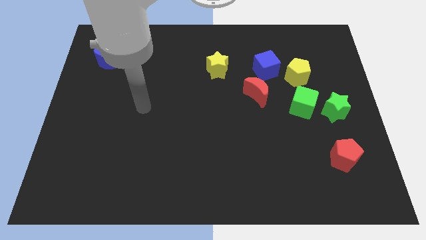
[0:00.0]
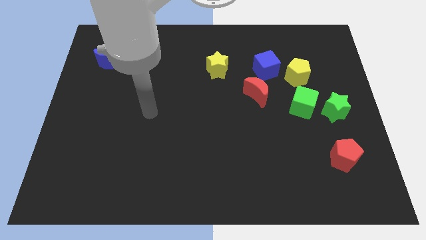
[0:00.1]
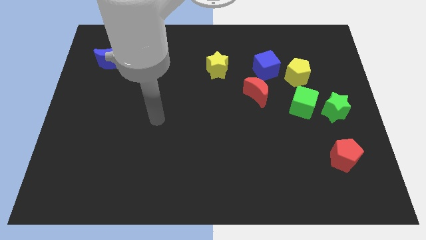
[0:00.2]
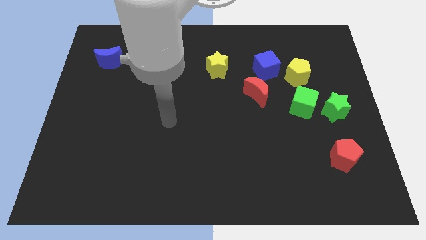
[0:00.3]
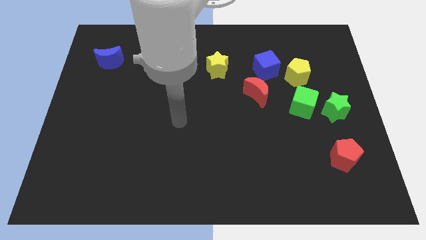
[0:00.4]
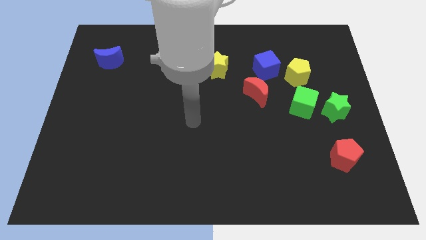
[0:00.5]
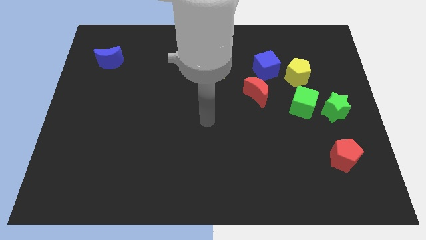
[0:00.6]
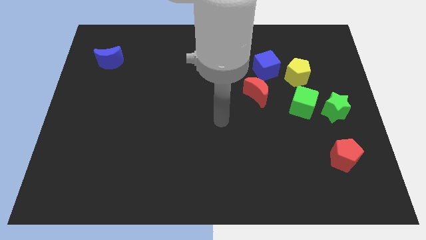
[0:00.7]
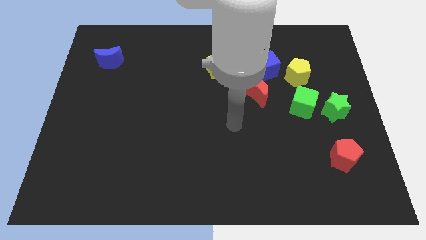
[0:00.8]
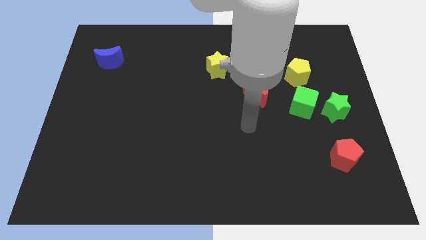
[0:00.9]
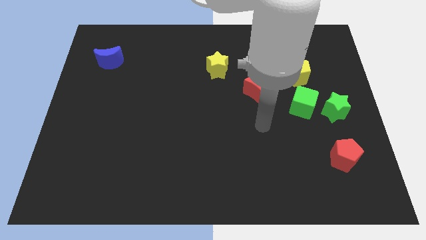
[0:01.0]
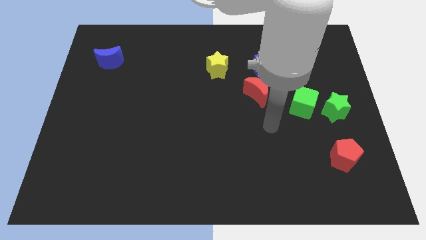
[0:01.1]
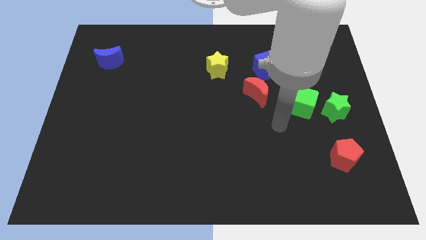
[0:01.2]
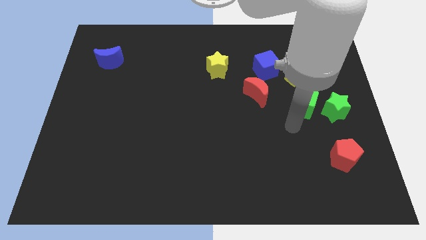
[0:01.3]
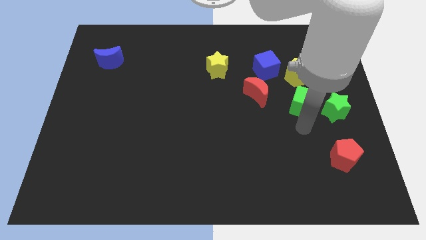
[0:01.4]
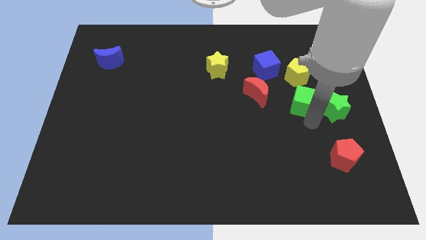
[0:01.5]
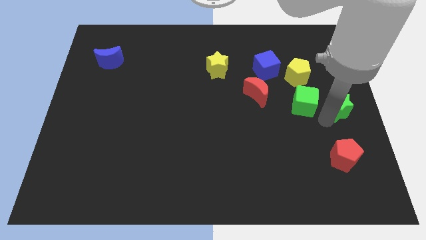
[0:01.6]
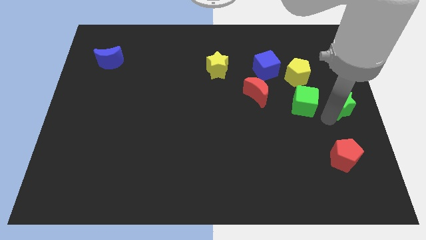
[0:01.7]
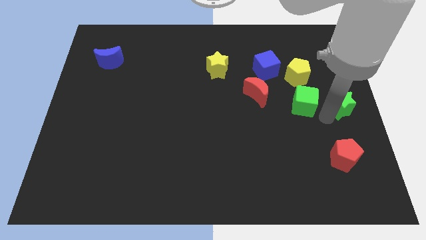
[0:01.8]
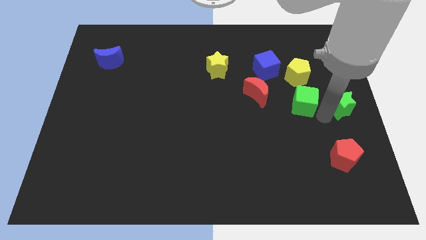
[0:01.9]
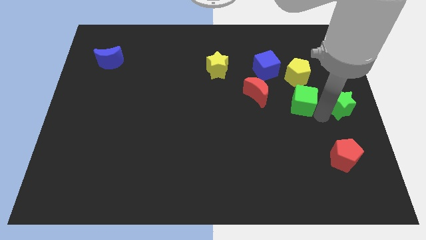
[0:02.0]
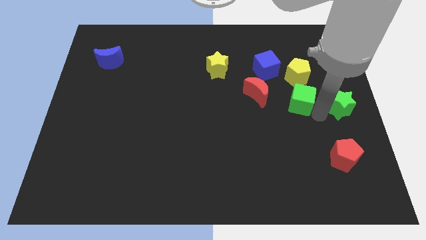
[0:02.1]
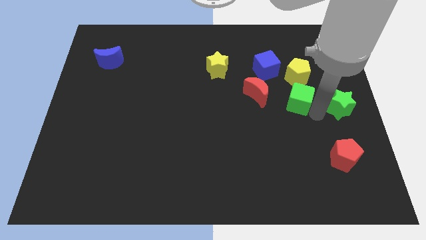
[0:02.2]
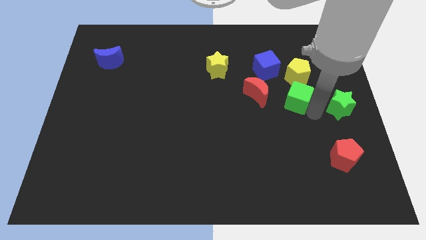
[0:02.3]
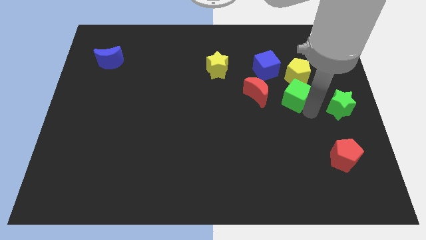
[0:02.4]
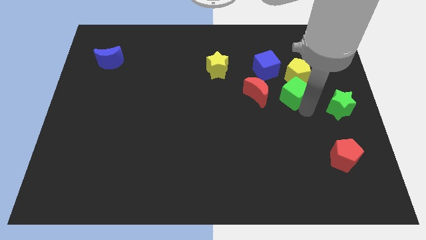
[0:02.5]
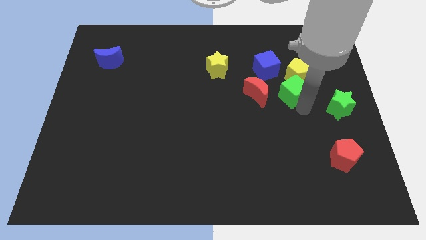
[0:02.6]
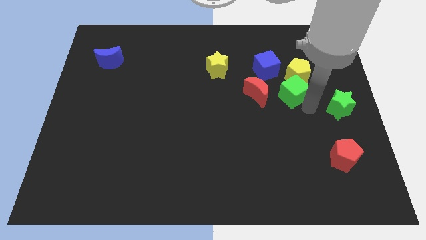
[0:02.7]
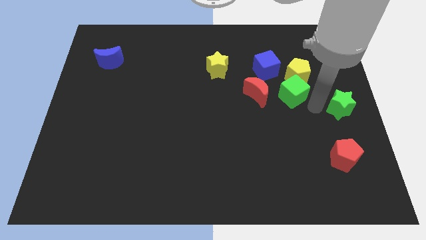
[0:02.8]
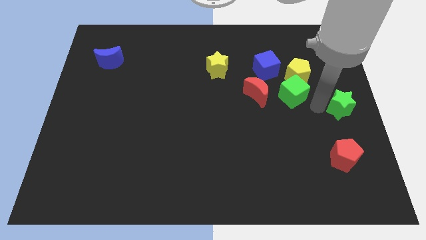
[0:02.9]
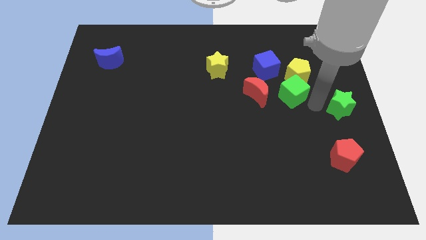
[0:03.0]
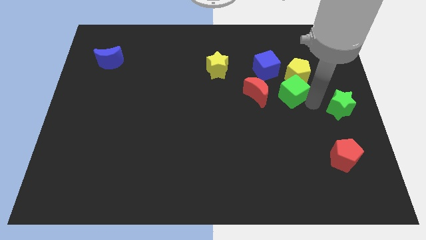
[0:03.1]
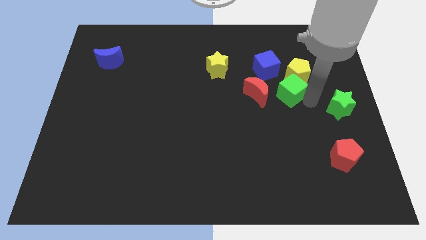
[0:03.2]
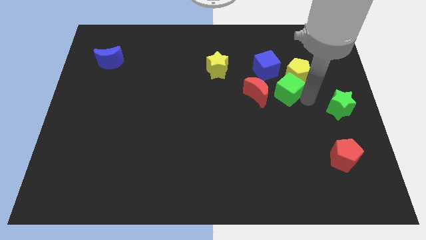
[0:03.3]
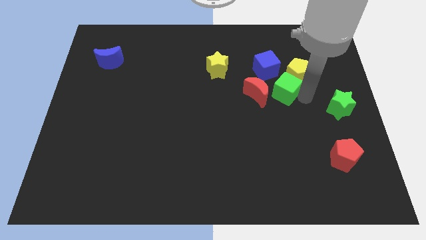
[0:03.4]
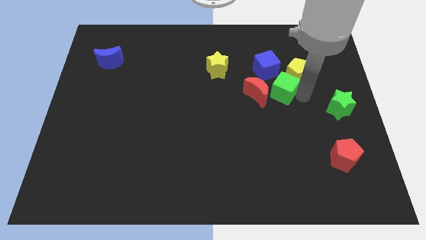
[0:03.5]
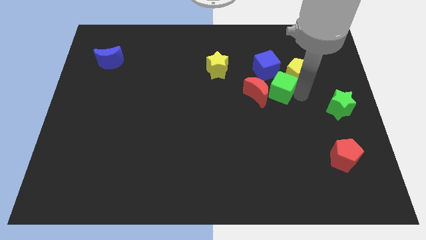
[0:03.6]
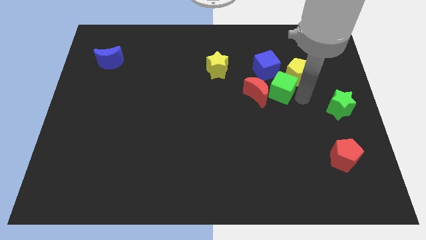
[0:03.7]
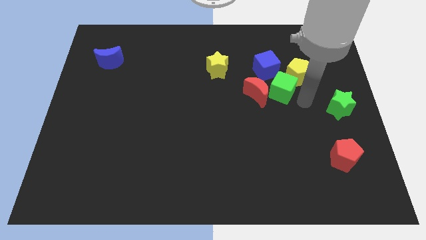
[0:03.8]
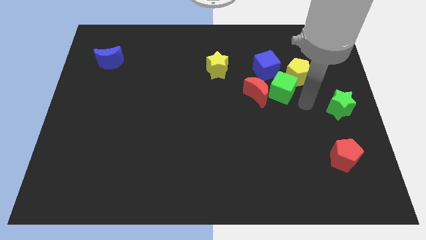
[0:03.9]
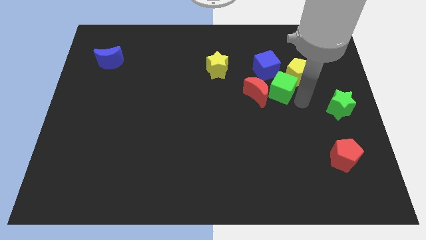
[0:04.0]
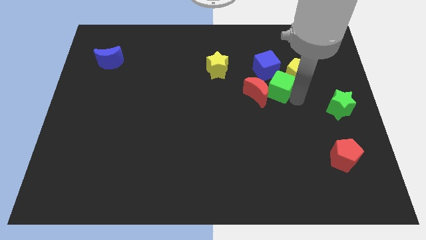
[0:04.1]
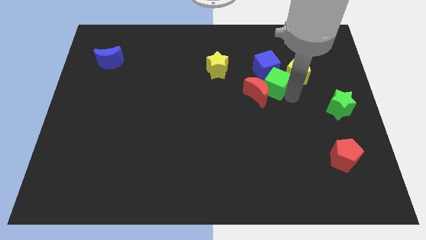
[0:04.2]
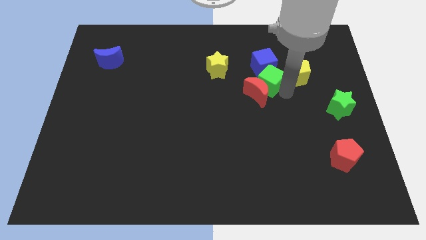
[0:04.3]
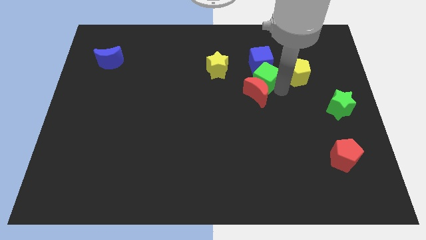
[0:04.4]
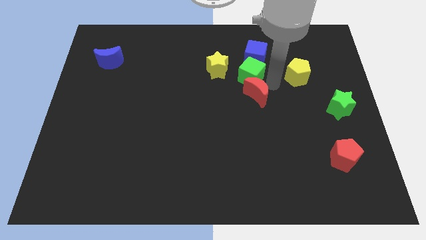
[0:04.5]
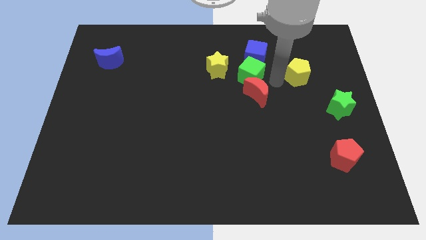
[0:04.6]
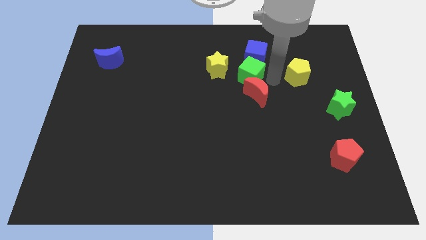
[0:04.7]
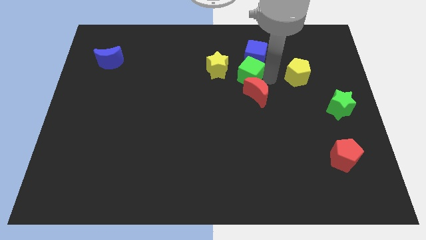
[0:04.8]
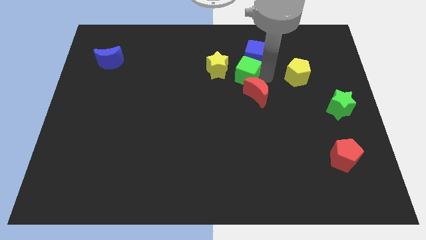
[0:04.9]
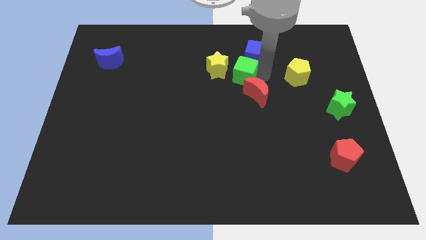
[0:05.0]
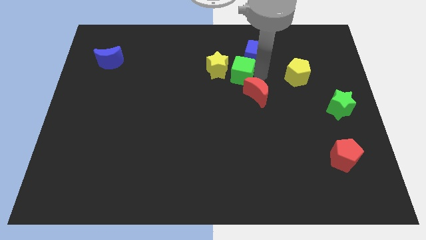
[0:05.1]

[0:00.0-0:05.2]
slide the green cube towards the yellow star

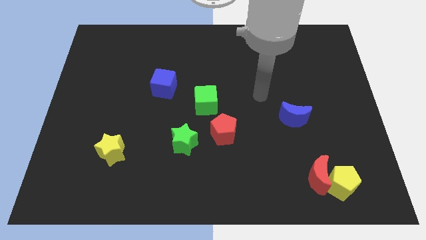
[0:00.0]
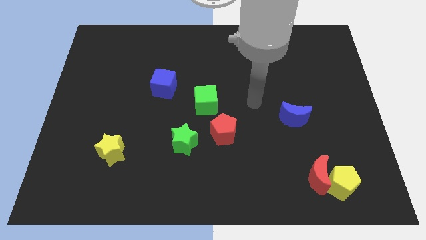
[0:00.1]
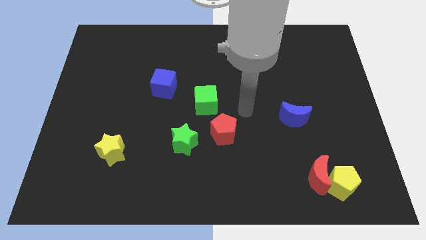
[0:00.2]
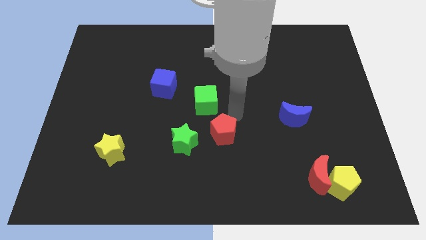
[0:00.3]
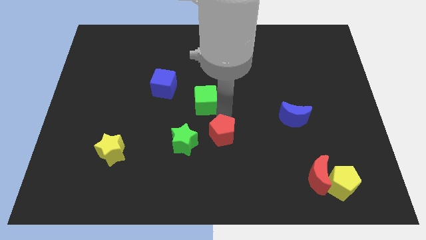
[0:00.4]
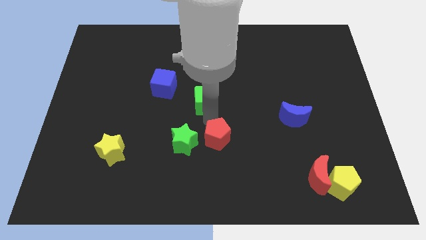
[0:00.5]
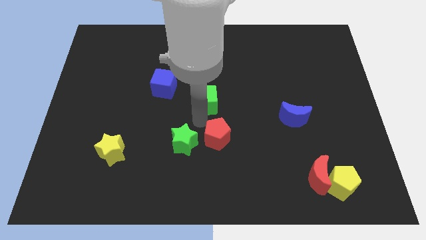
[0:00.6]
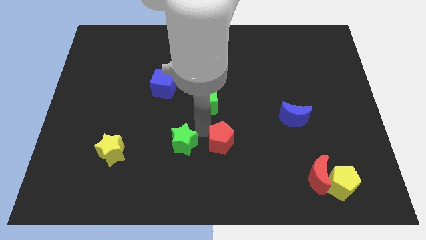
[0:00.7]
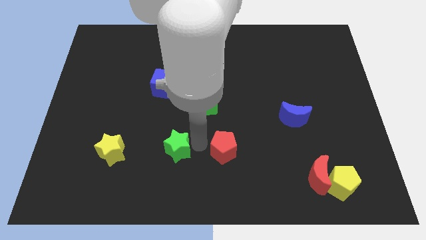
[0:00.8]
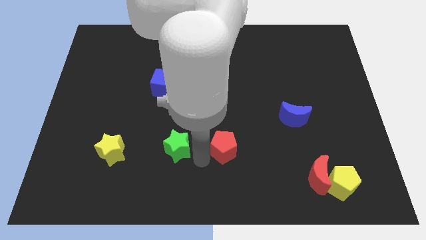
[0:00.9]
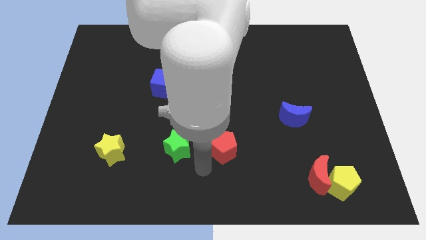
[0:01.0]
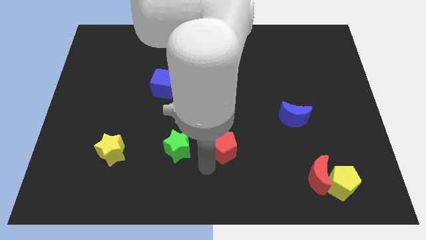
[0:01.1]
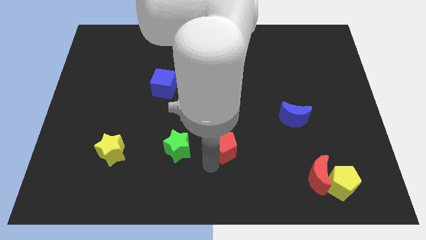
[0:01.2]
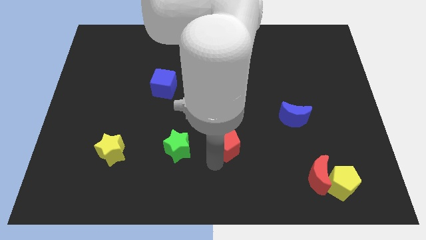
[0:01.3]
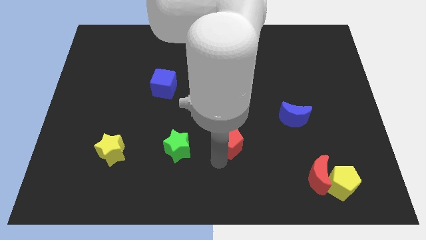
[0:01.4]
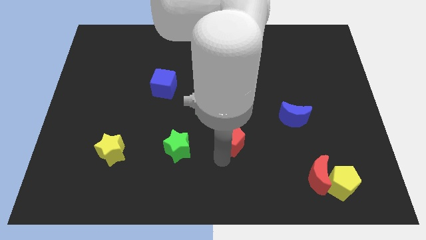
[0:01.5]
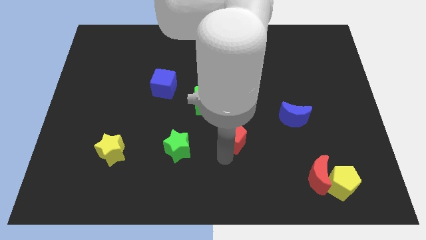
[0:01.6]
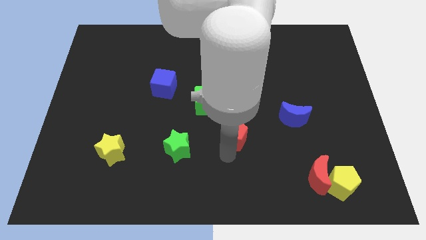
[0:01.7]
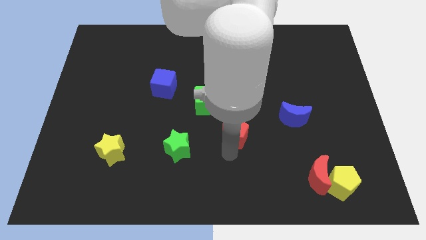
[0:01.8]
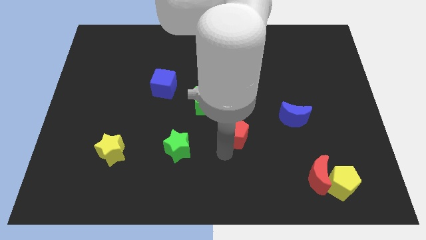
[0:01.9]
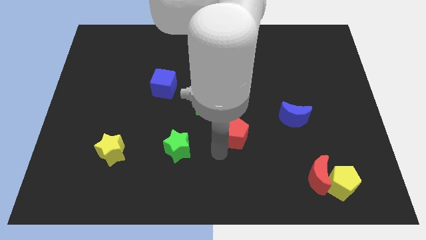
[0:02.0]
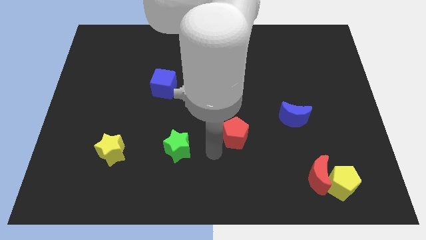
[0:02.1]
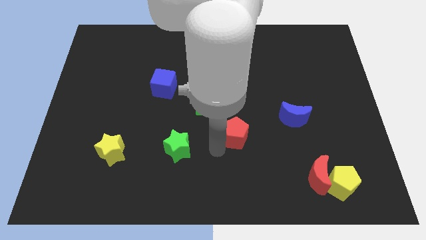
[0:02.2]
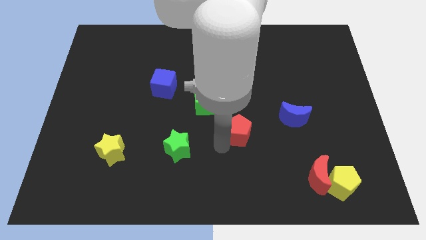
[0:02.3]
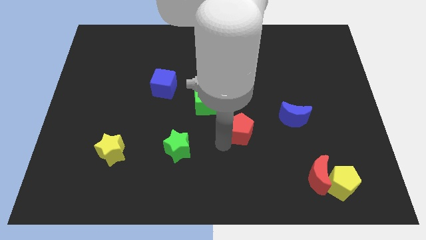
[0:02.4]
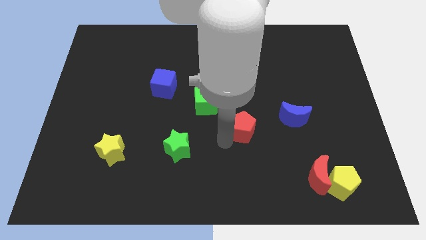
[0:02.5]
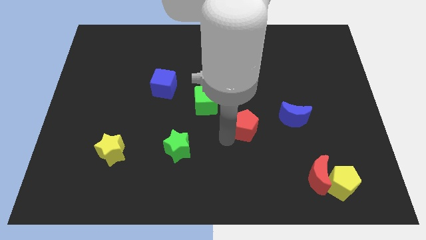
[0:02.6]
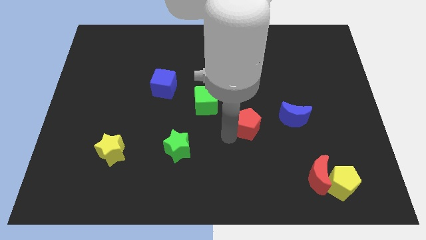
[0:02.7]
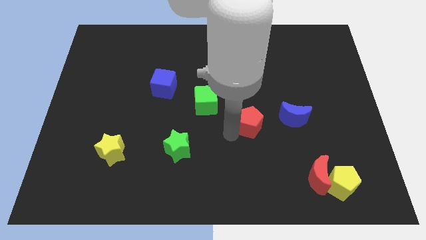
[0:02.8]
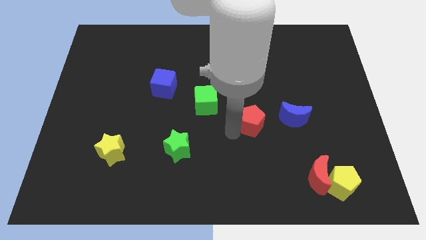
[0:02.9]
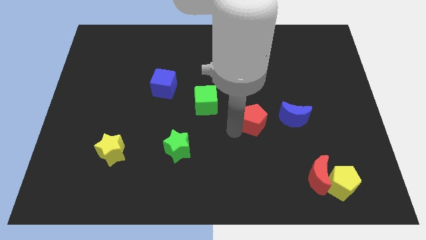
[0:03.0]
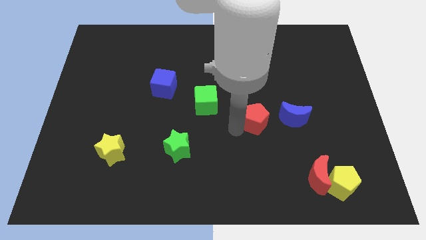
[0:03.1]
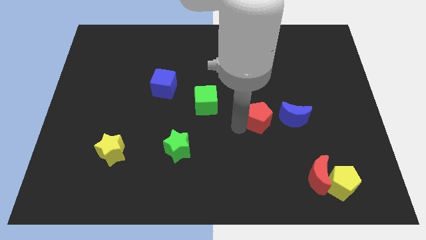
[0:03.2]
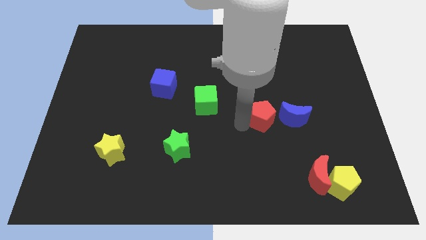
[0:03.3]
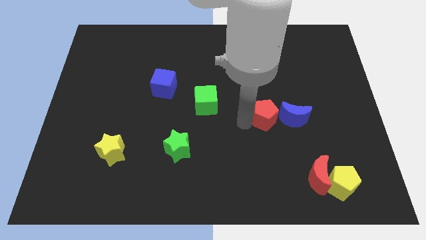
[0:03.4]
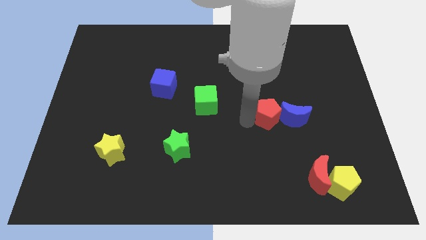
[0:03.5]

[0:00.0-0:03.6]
put the red pentagon towards the blue moon
